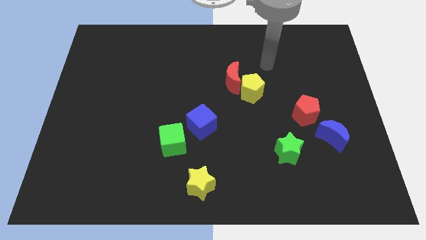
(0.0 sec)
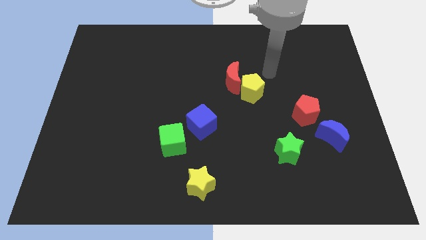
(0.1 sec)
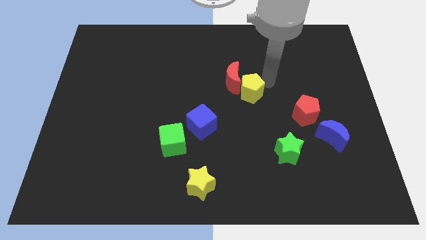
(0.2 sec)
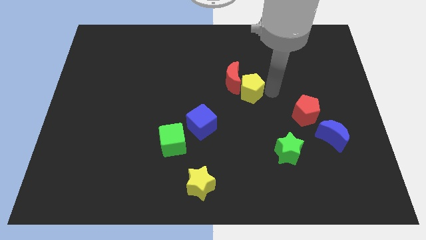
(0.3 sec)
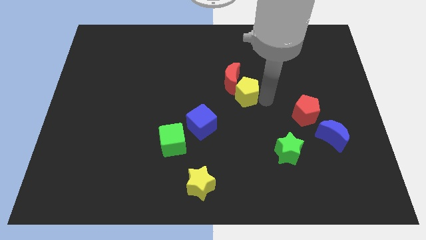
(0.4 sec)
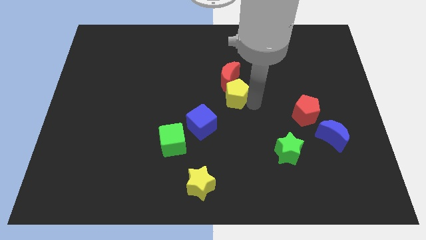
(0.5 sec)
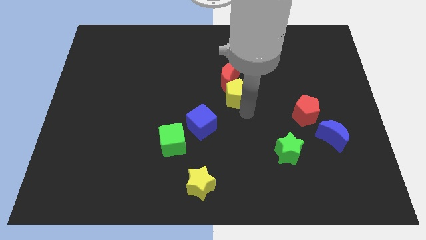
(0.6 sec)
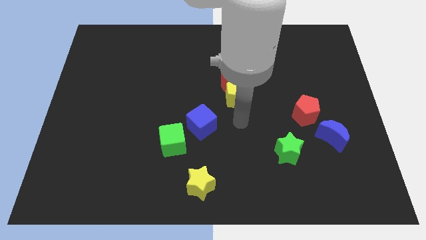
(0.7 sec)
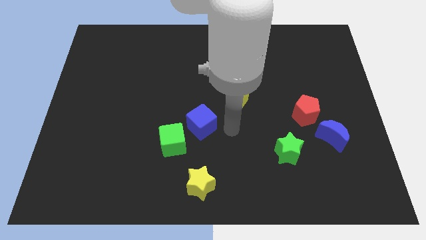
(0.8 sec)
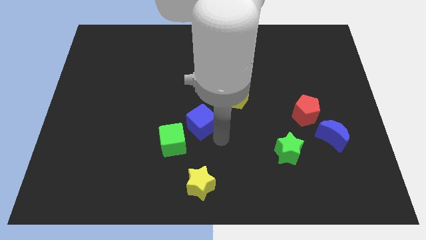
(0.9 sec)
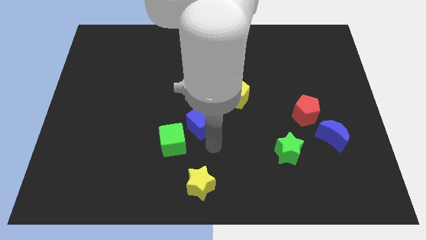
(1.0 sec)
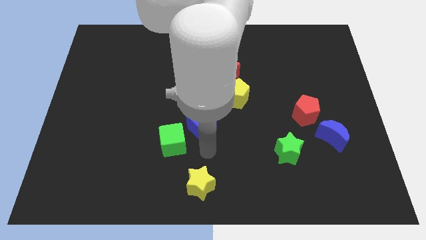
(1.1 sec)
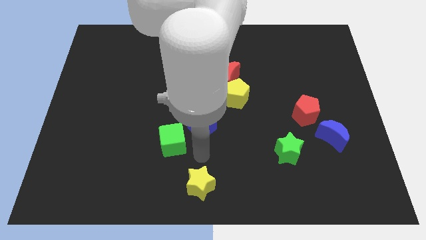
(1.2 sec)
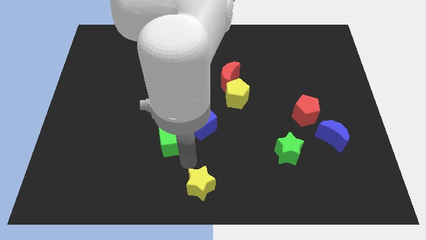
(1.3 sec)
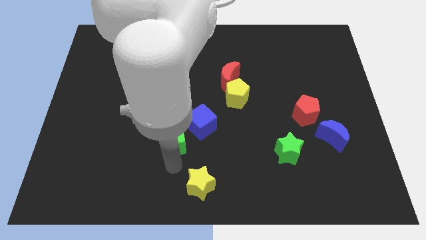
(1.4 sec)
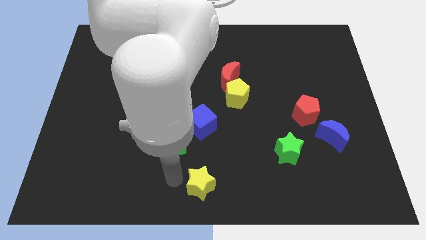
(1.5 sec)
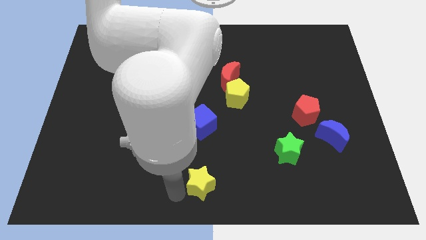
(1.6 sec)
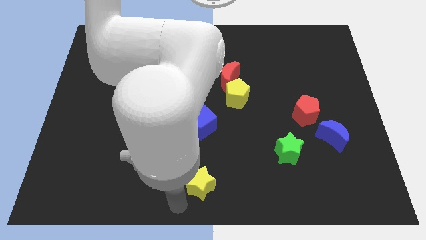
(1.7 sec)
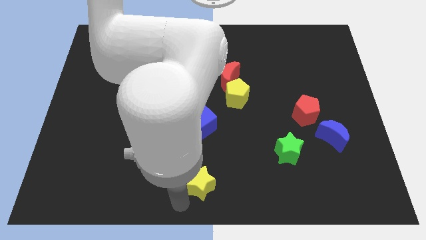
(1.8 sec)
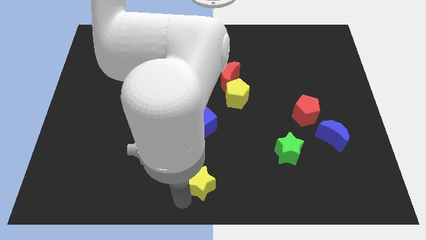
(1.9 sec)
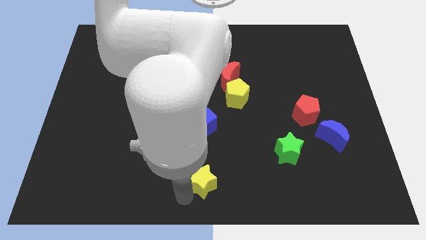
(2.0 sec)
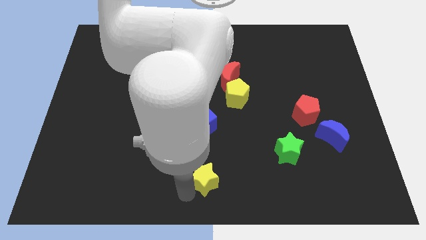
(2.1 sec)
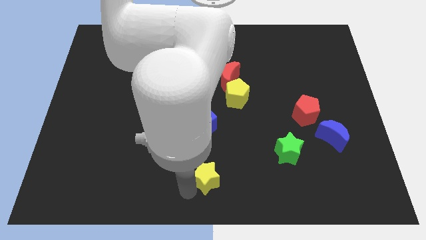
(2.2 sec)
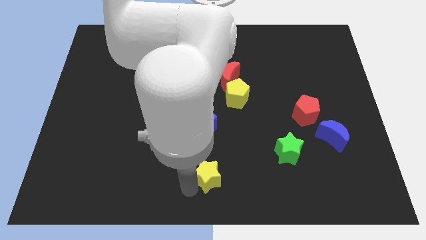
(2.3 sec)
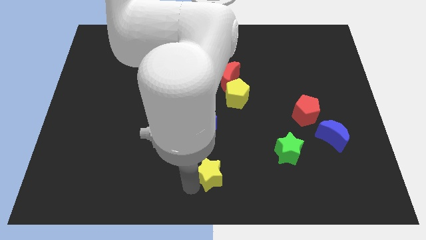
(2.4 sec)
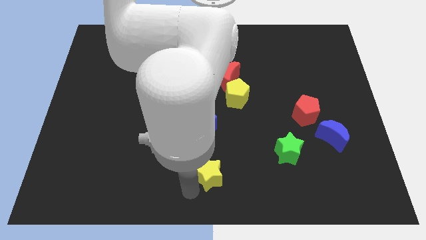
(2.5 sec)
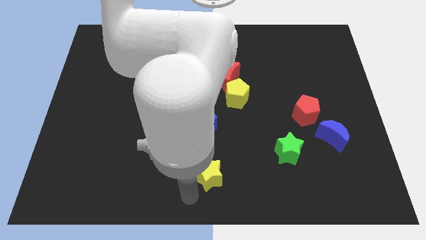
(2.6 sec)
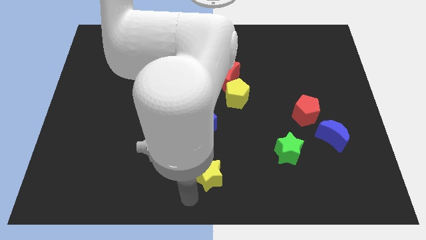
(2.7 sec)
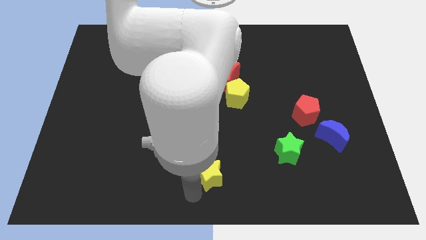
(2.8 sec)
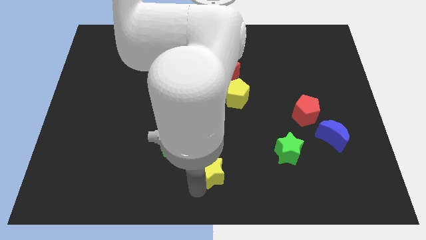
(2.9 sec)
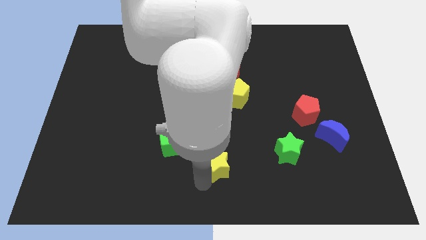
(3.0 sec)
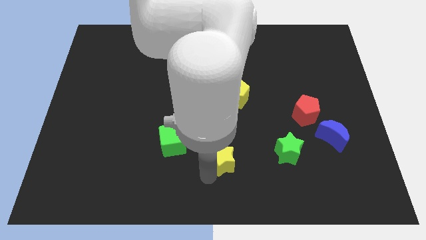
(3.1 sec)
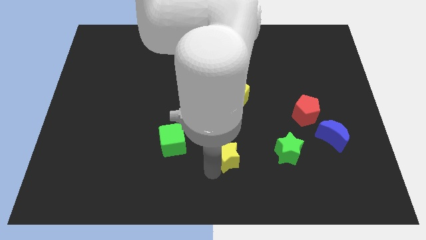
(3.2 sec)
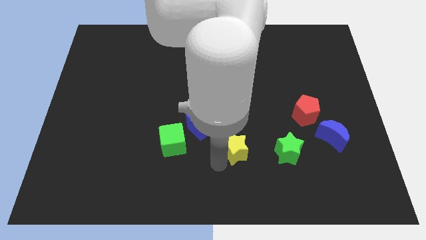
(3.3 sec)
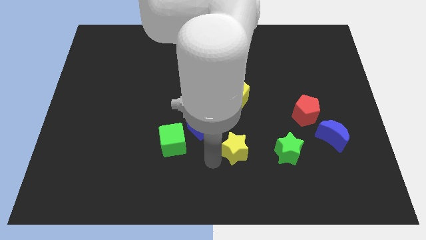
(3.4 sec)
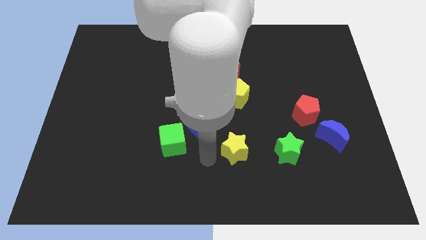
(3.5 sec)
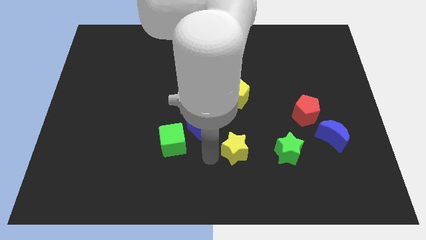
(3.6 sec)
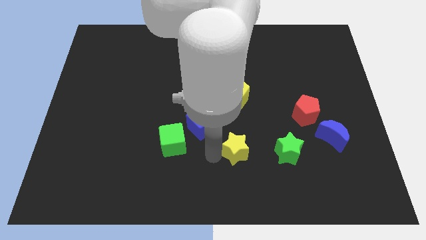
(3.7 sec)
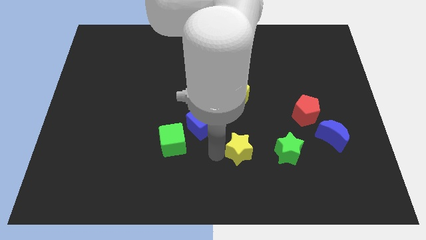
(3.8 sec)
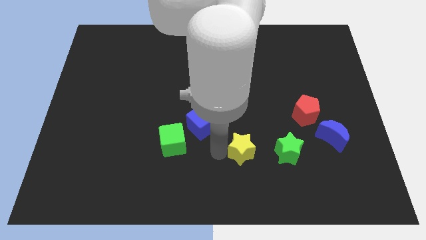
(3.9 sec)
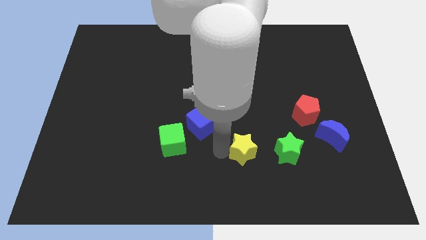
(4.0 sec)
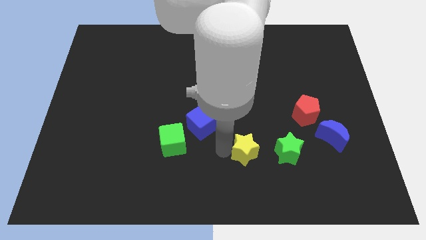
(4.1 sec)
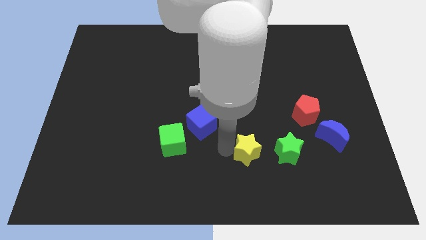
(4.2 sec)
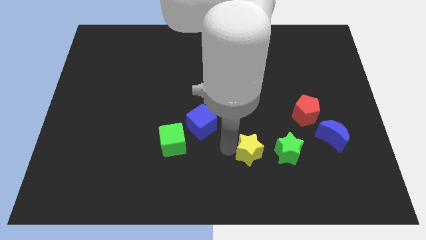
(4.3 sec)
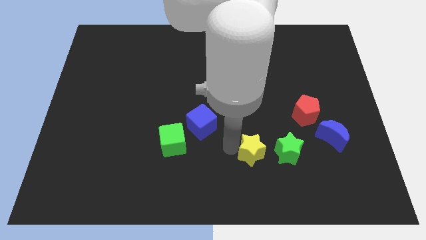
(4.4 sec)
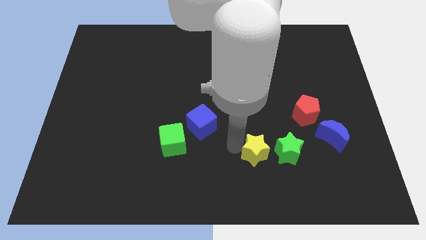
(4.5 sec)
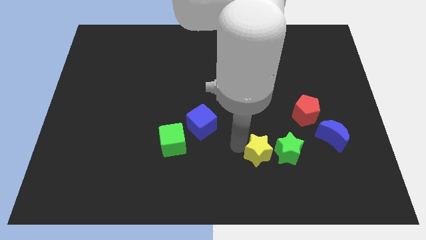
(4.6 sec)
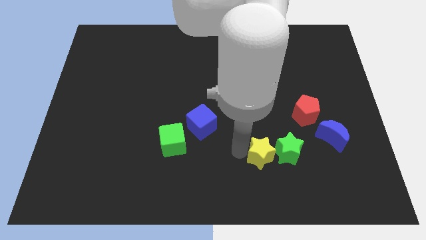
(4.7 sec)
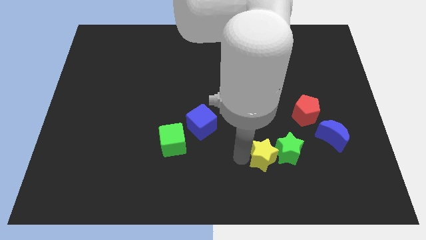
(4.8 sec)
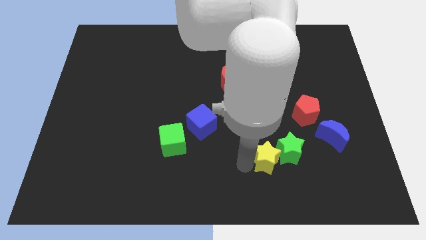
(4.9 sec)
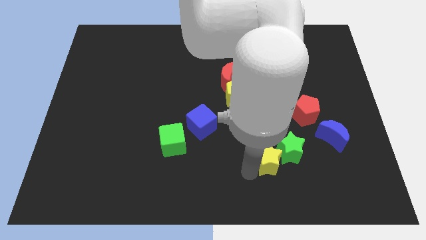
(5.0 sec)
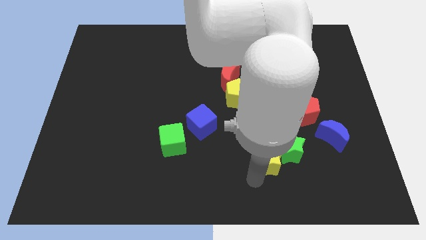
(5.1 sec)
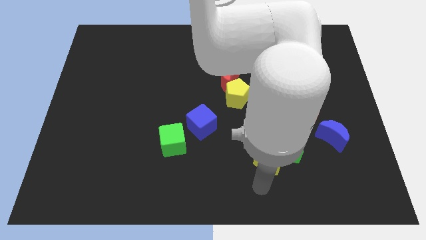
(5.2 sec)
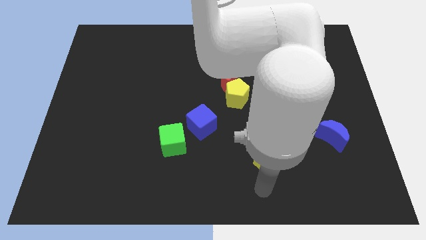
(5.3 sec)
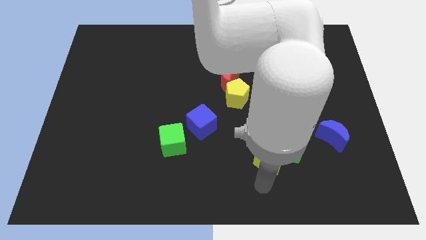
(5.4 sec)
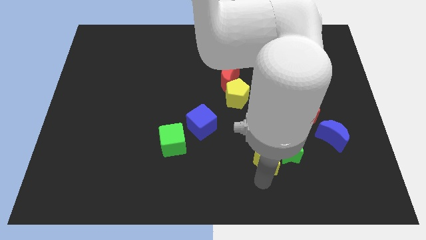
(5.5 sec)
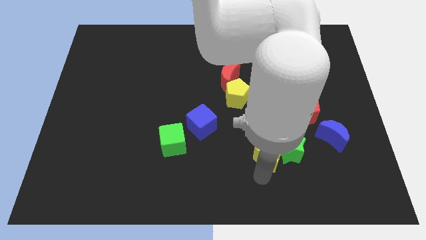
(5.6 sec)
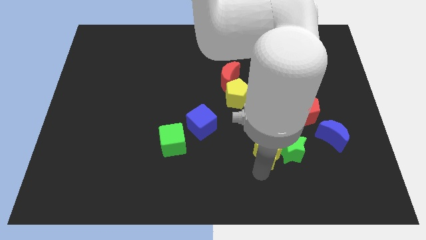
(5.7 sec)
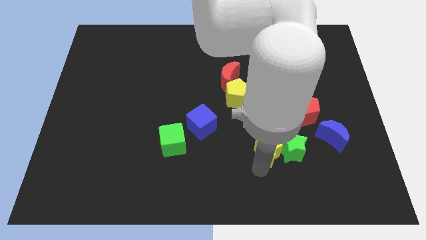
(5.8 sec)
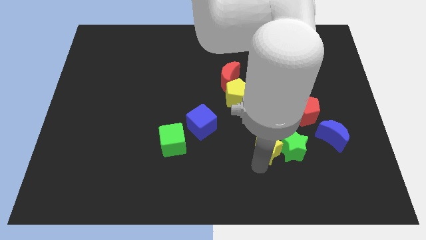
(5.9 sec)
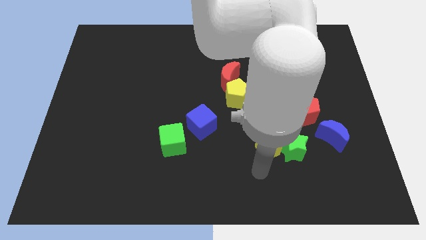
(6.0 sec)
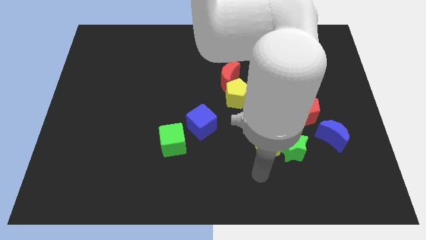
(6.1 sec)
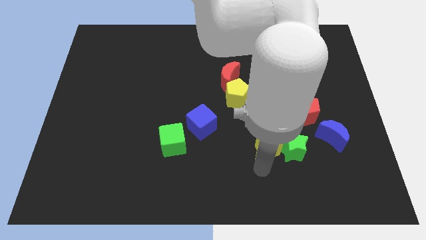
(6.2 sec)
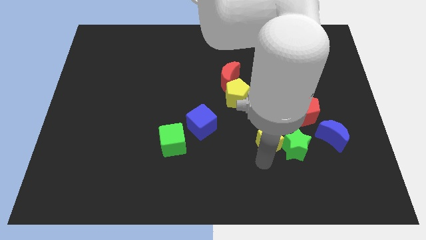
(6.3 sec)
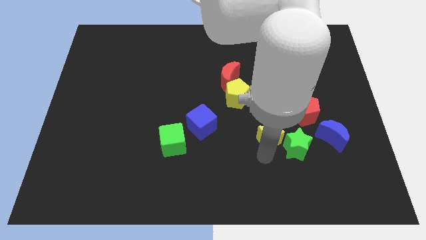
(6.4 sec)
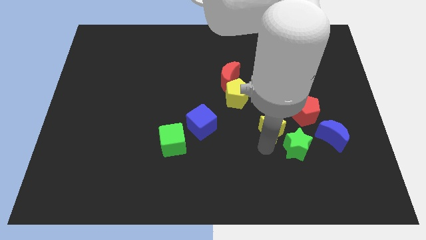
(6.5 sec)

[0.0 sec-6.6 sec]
slide the yellow star up and right diagonally

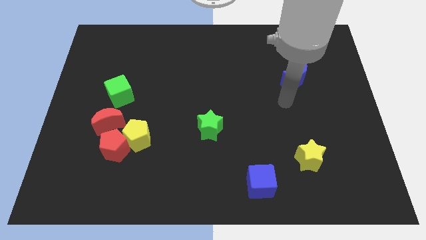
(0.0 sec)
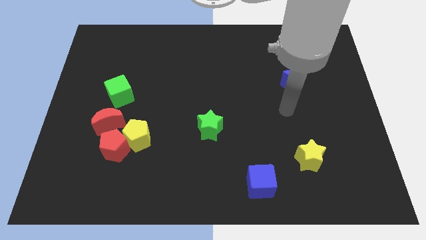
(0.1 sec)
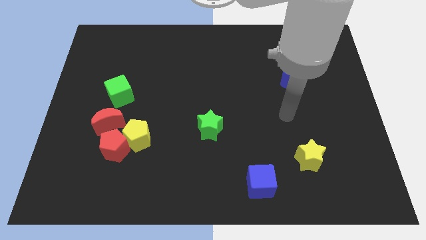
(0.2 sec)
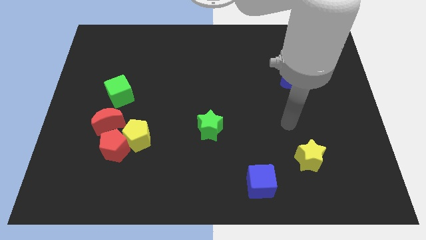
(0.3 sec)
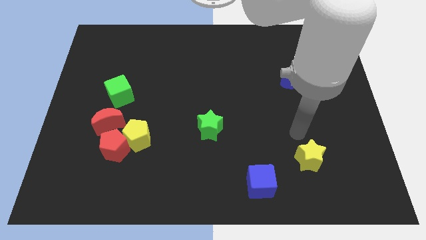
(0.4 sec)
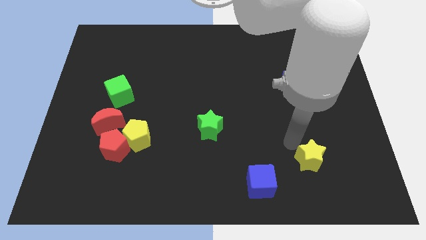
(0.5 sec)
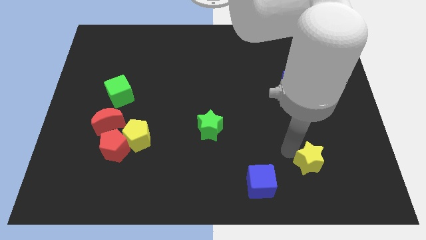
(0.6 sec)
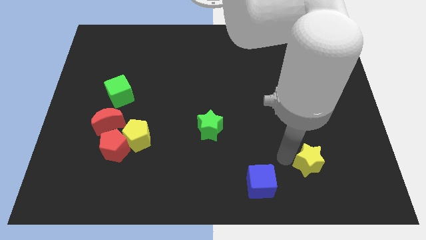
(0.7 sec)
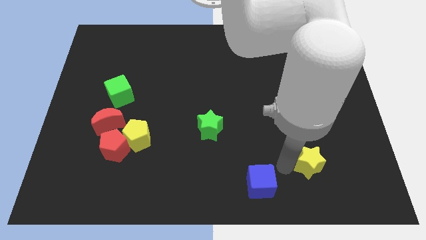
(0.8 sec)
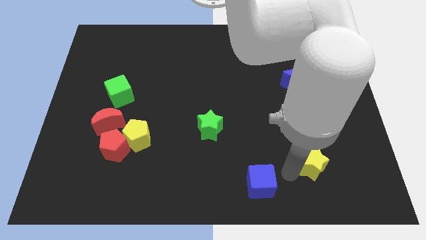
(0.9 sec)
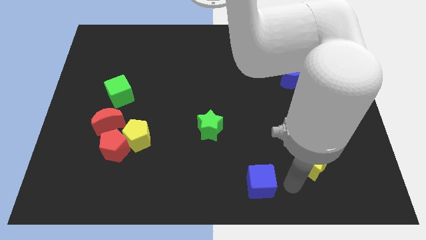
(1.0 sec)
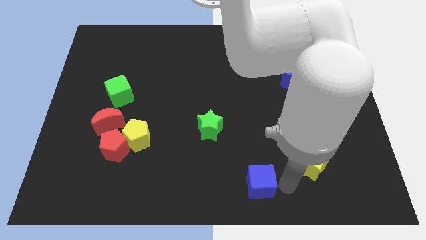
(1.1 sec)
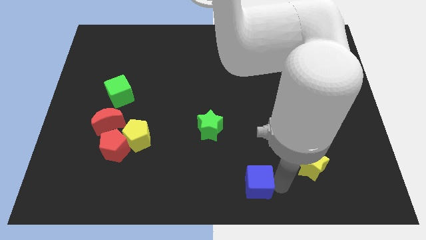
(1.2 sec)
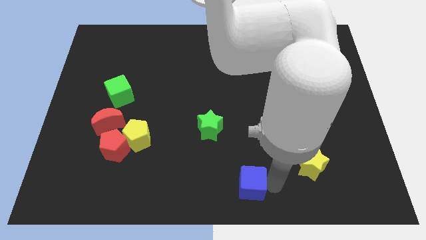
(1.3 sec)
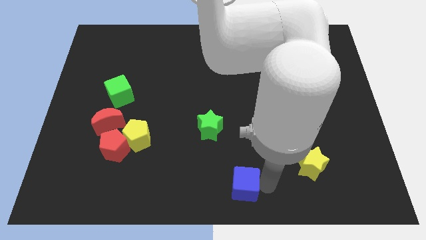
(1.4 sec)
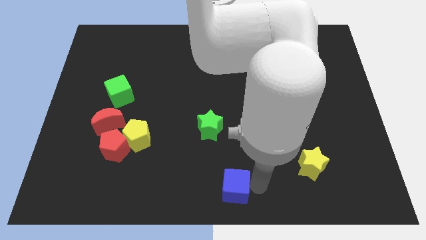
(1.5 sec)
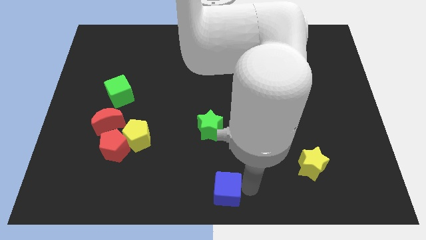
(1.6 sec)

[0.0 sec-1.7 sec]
slightly move the blue cube to the left
